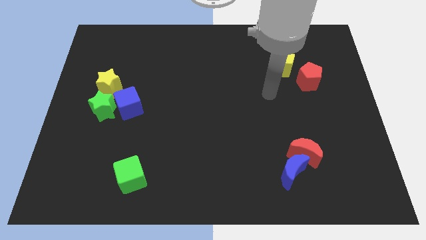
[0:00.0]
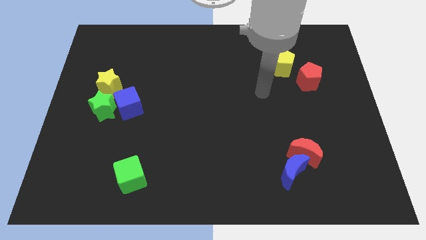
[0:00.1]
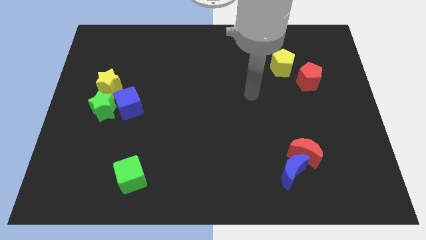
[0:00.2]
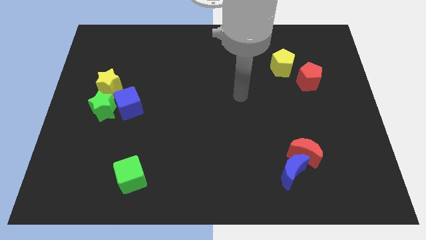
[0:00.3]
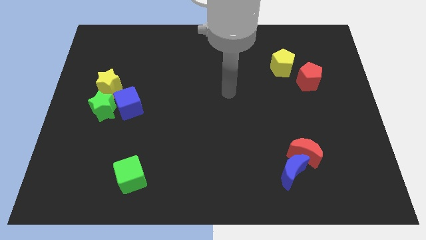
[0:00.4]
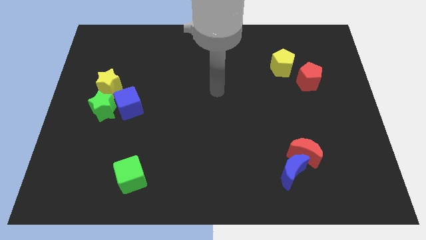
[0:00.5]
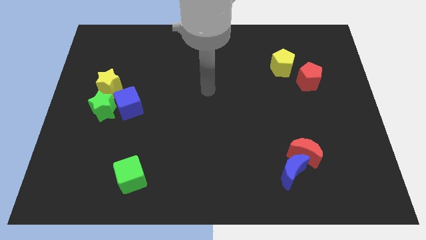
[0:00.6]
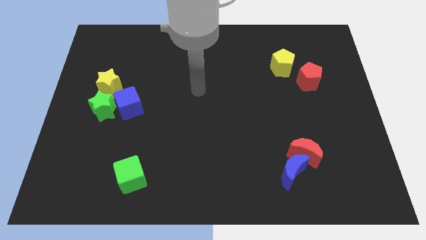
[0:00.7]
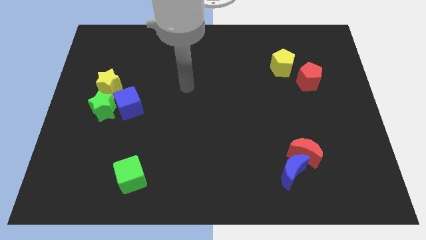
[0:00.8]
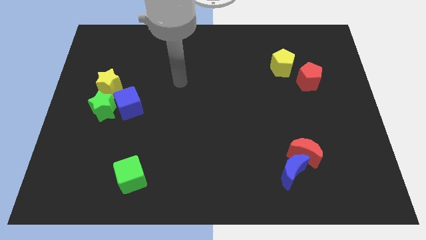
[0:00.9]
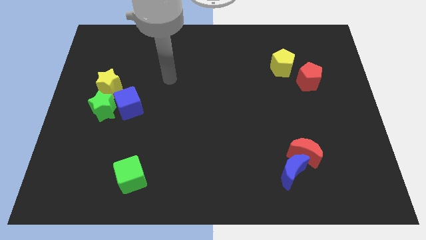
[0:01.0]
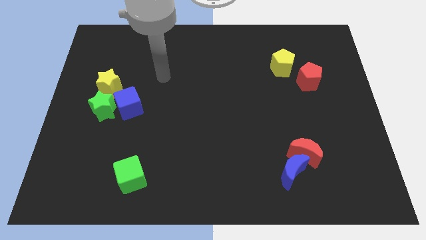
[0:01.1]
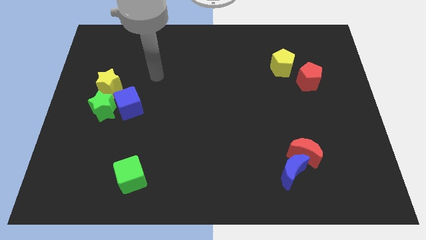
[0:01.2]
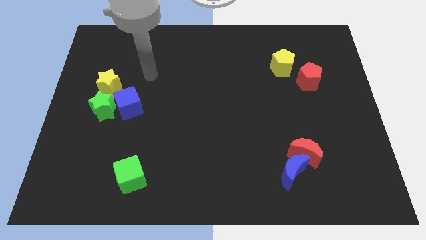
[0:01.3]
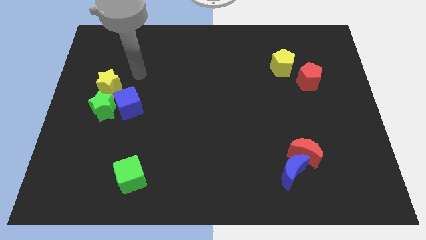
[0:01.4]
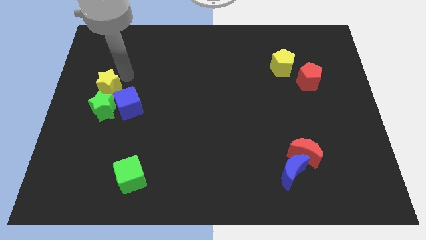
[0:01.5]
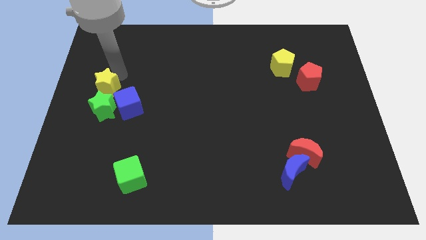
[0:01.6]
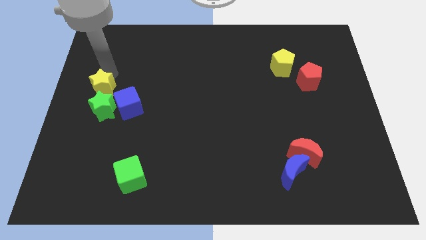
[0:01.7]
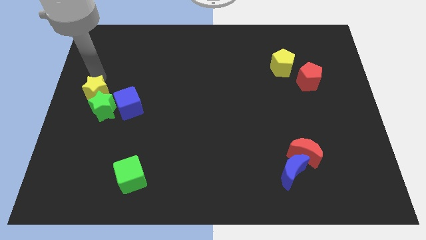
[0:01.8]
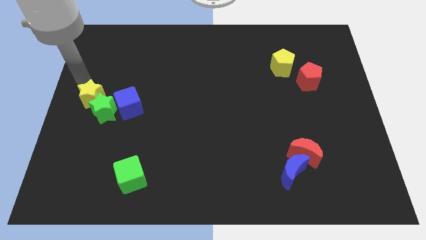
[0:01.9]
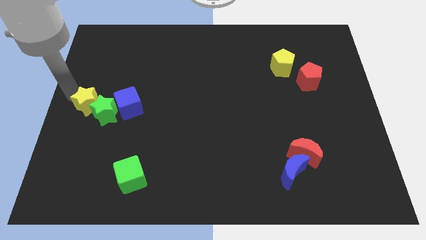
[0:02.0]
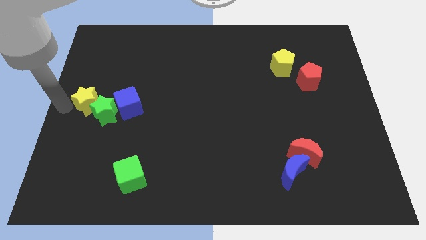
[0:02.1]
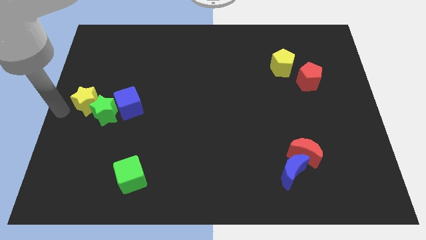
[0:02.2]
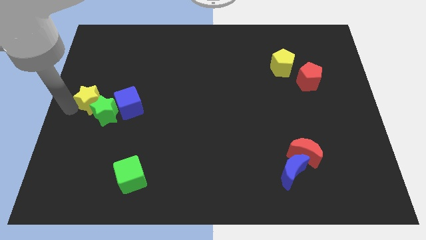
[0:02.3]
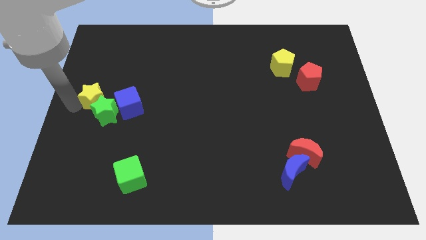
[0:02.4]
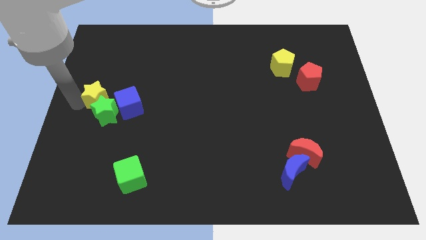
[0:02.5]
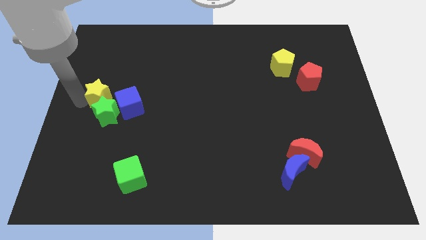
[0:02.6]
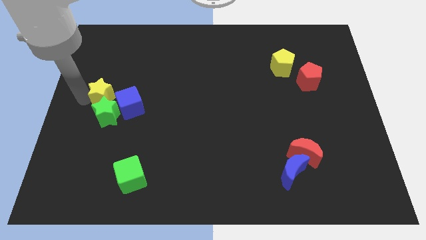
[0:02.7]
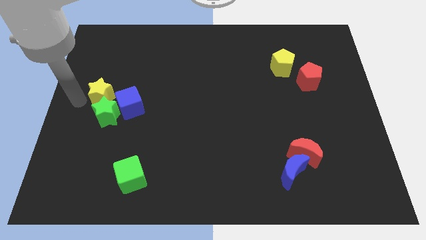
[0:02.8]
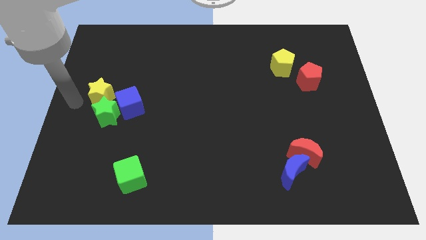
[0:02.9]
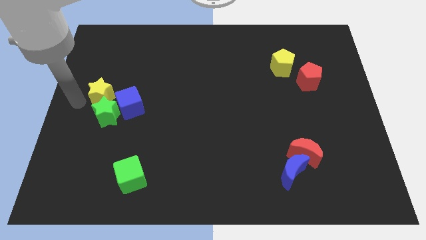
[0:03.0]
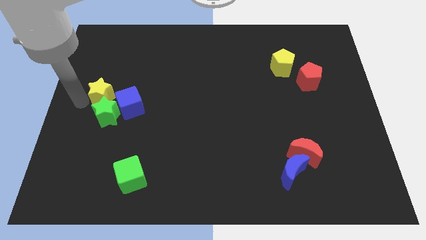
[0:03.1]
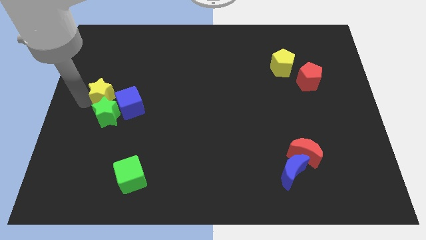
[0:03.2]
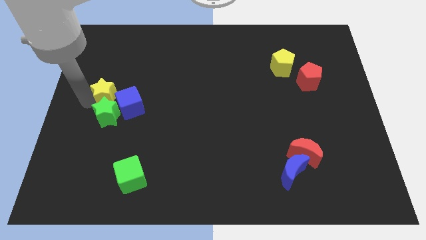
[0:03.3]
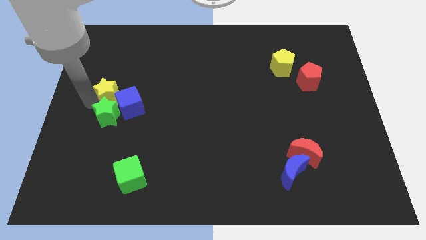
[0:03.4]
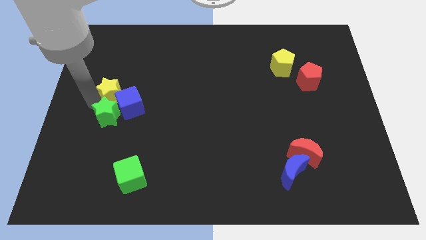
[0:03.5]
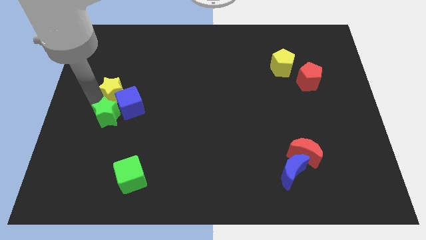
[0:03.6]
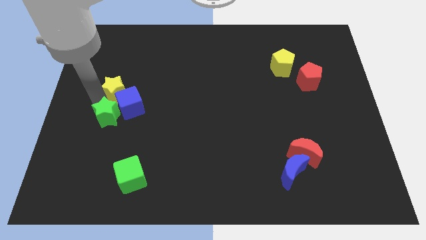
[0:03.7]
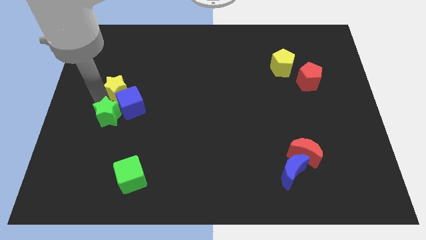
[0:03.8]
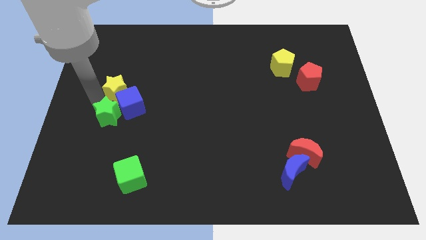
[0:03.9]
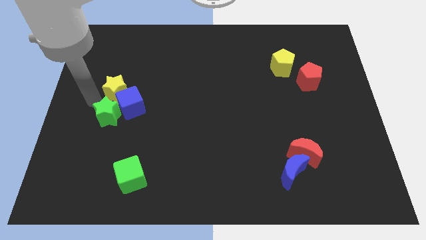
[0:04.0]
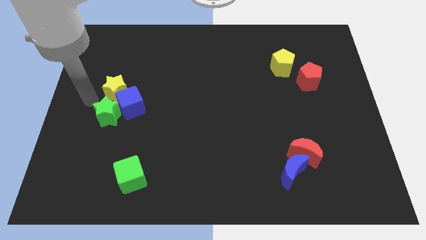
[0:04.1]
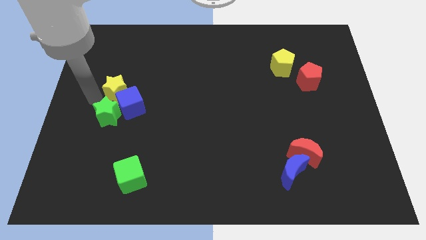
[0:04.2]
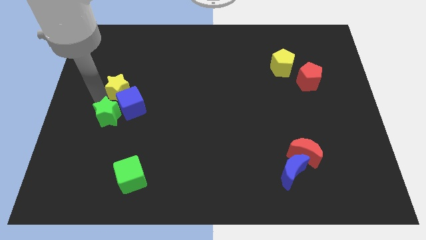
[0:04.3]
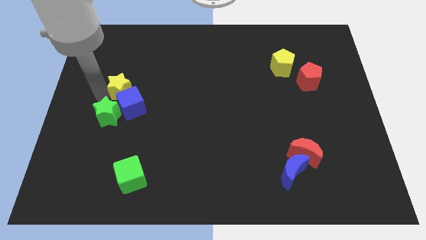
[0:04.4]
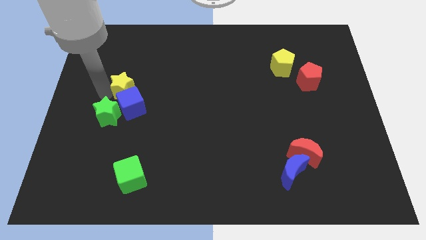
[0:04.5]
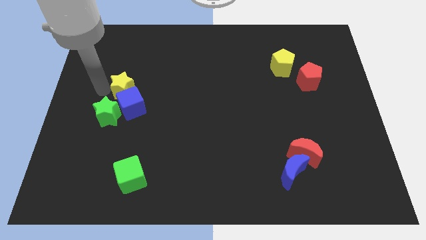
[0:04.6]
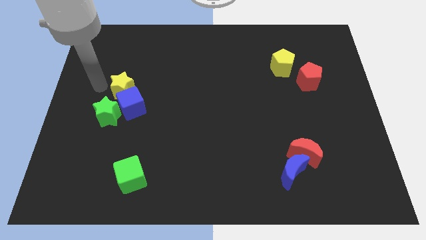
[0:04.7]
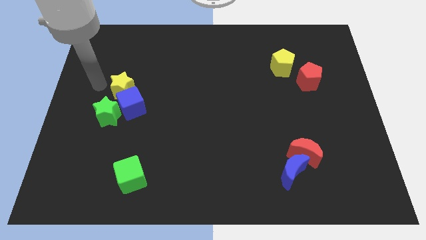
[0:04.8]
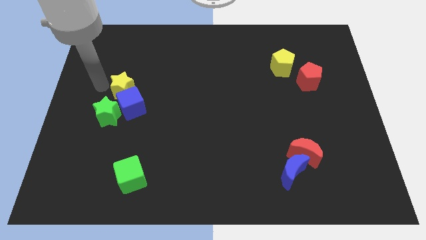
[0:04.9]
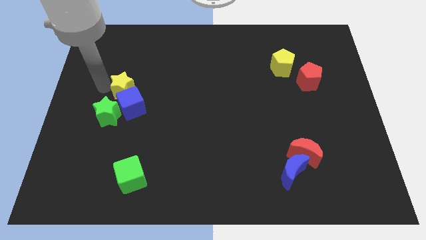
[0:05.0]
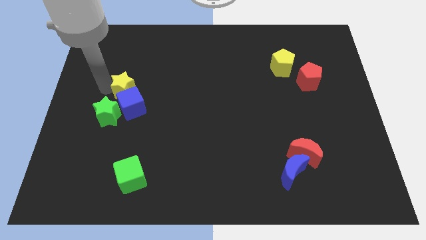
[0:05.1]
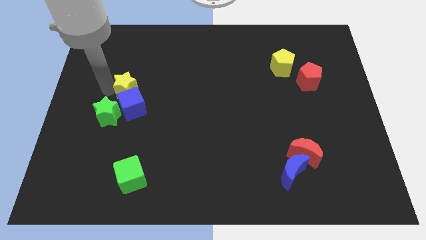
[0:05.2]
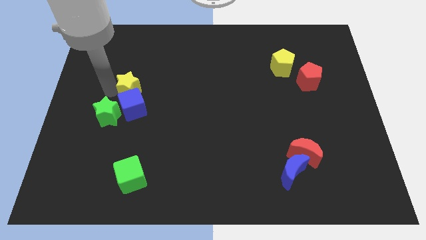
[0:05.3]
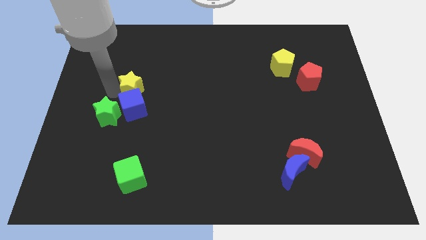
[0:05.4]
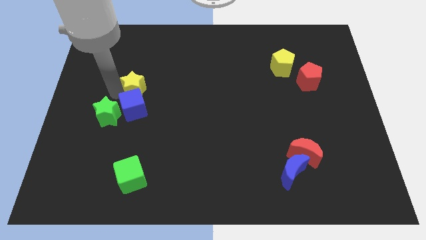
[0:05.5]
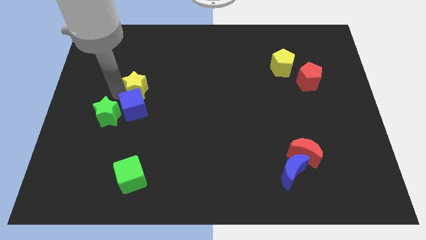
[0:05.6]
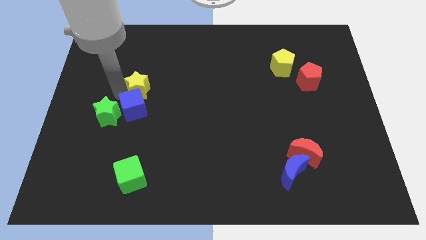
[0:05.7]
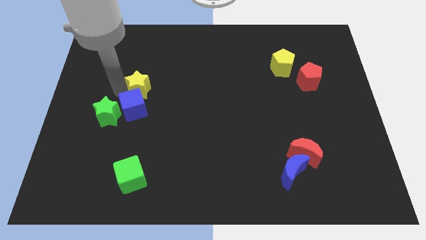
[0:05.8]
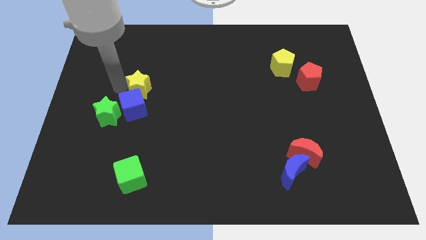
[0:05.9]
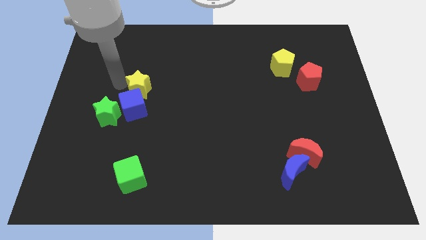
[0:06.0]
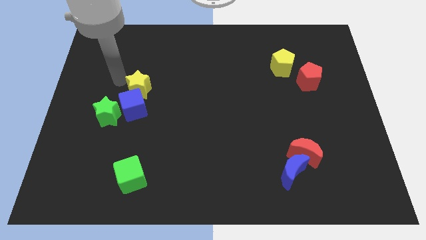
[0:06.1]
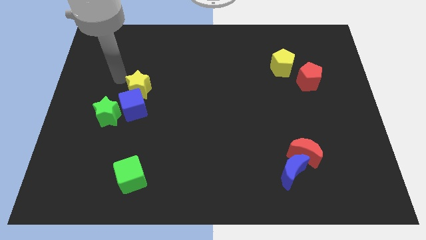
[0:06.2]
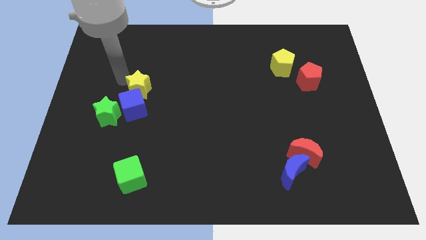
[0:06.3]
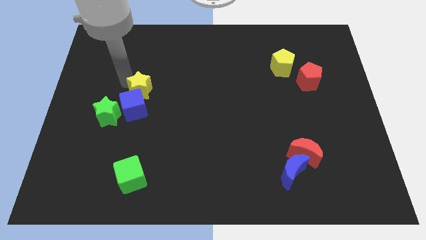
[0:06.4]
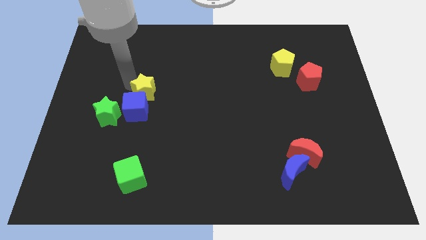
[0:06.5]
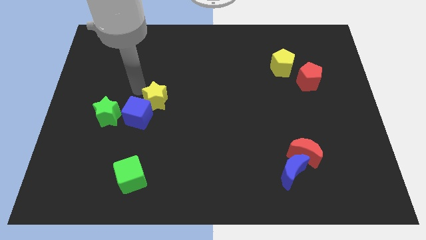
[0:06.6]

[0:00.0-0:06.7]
move the yellow star just right of the blue cube

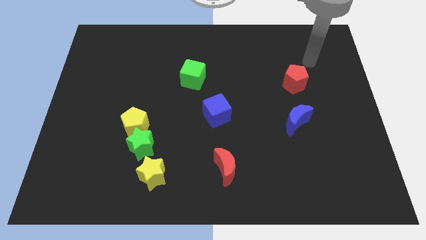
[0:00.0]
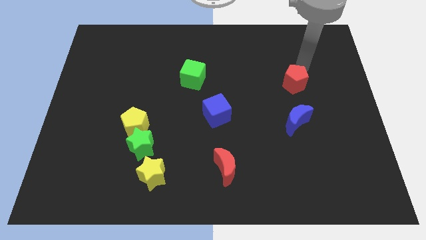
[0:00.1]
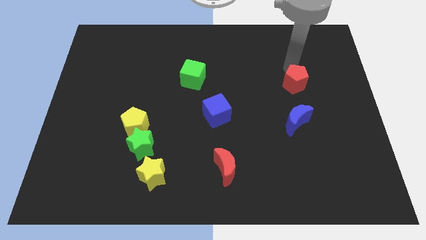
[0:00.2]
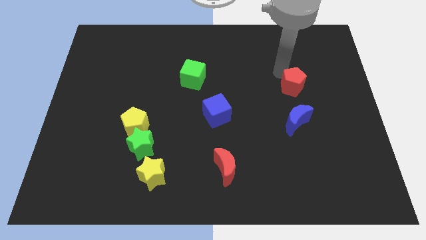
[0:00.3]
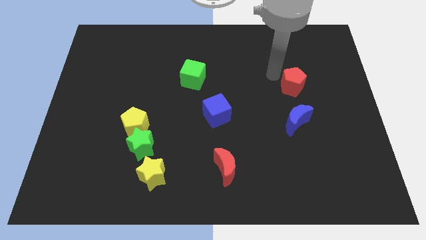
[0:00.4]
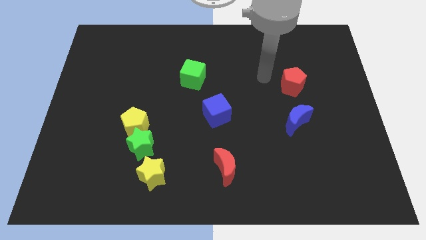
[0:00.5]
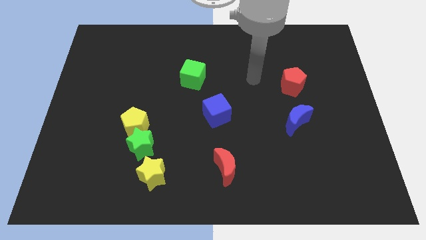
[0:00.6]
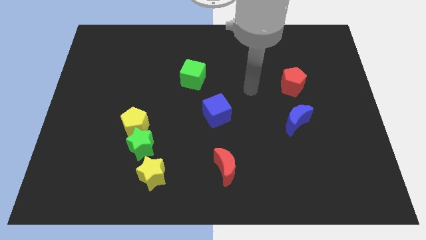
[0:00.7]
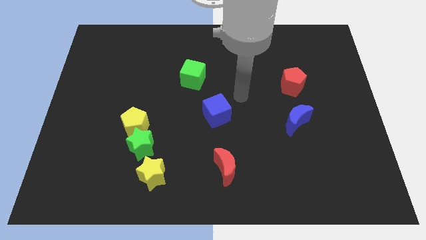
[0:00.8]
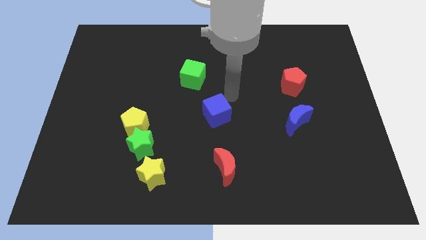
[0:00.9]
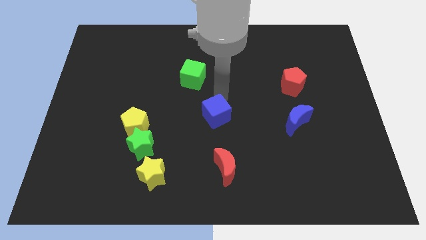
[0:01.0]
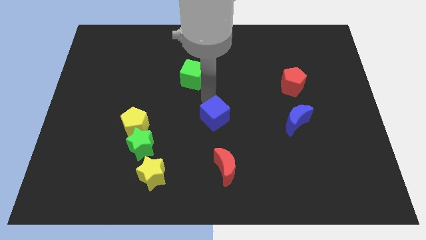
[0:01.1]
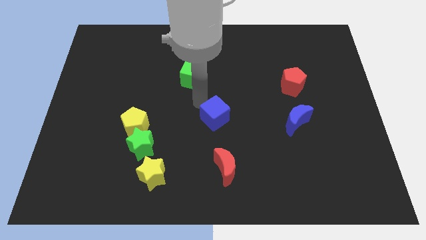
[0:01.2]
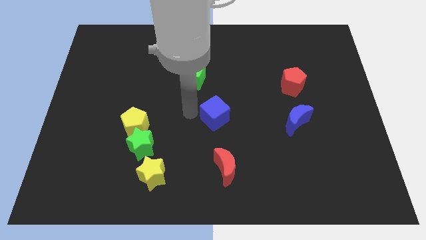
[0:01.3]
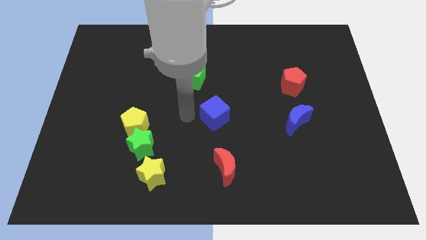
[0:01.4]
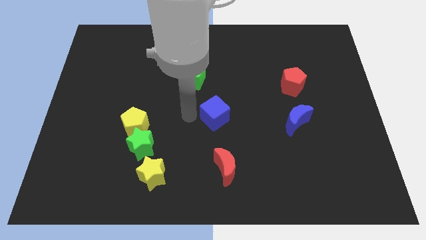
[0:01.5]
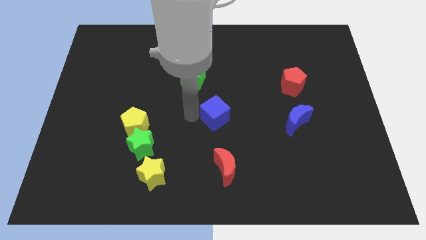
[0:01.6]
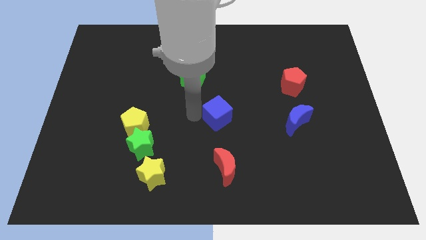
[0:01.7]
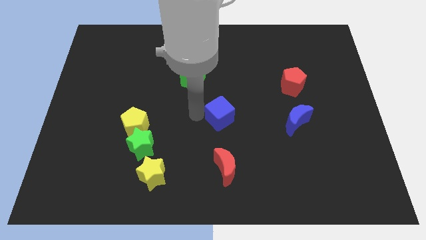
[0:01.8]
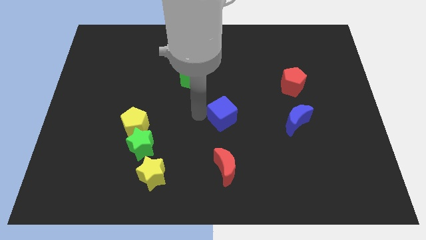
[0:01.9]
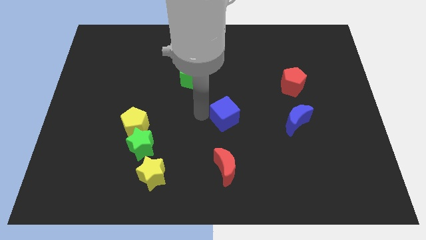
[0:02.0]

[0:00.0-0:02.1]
slide the blue cube left of the blue moon
